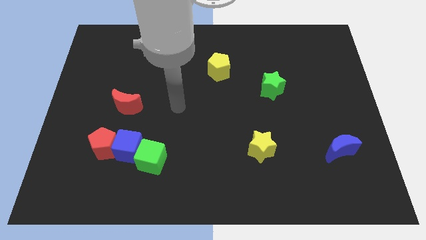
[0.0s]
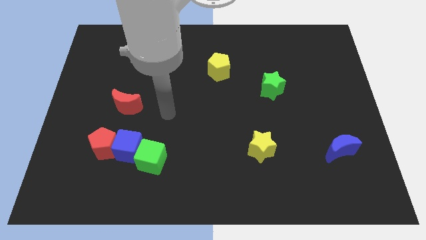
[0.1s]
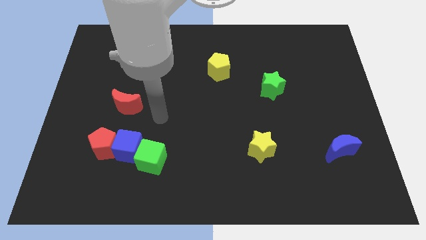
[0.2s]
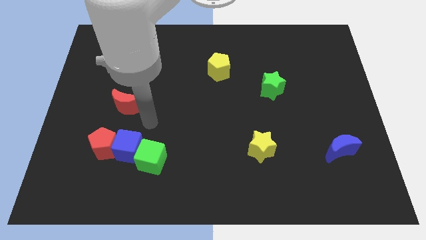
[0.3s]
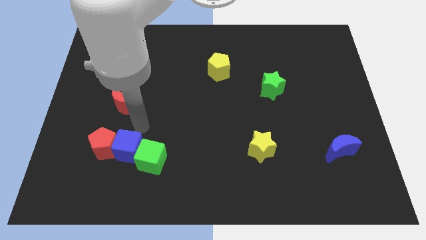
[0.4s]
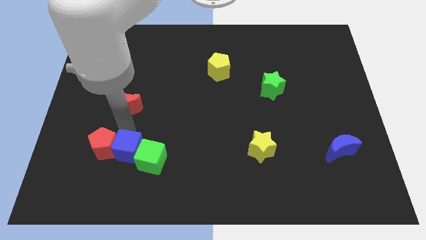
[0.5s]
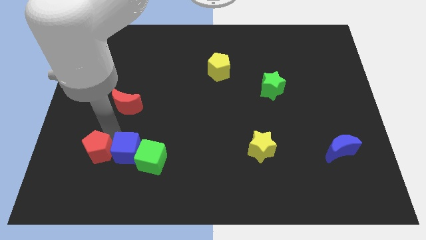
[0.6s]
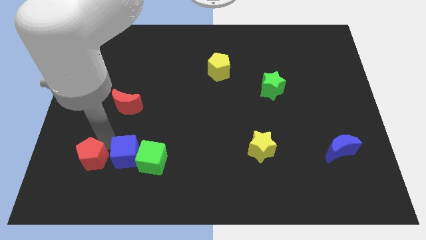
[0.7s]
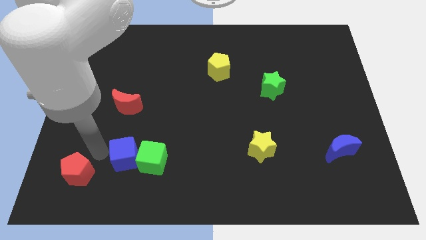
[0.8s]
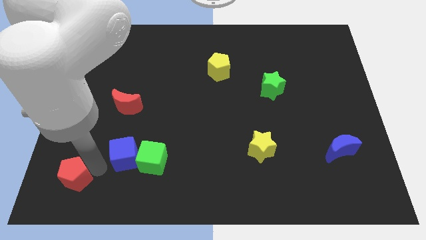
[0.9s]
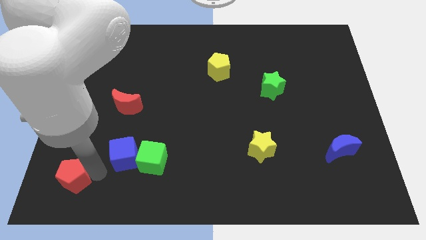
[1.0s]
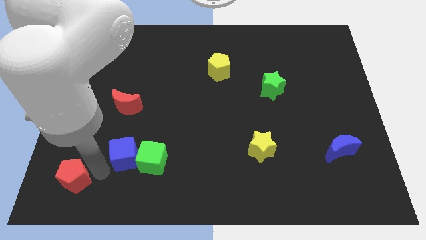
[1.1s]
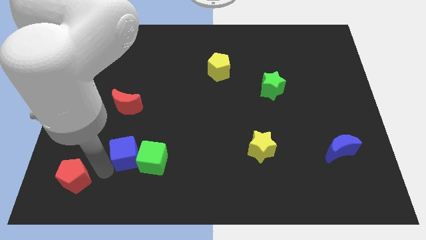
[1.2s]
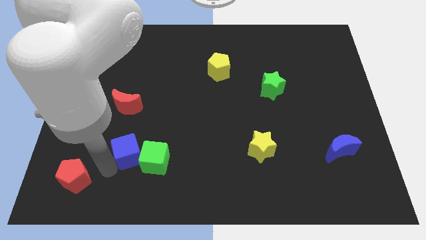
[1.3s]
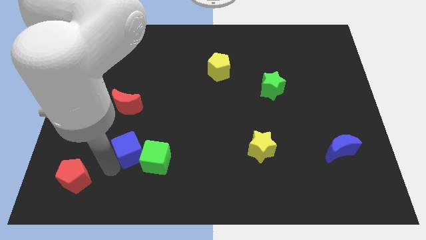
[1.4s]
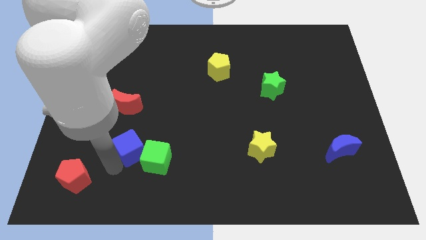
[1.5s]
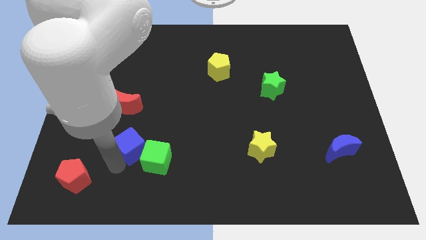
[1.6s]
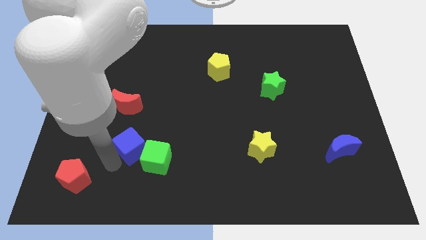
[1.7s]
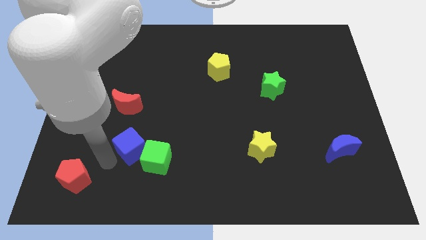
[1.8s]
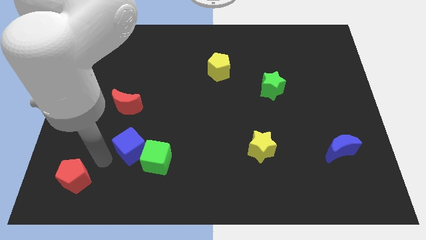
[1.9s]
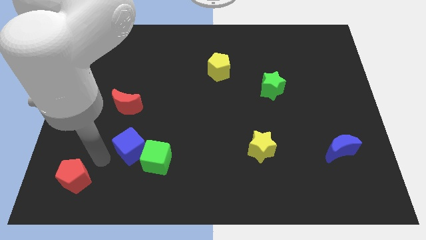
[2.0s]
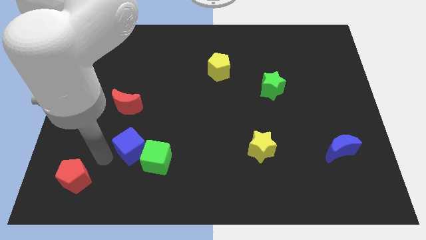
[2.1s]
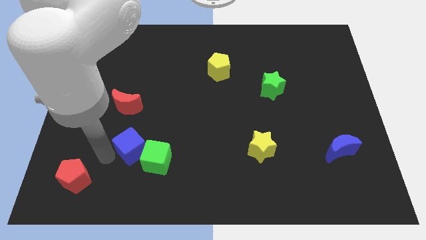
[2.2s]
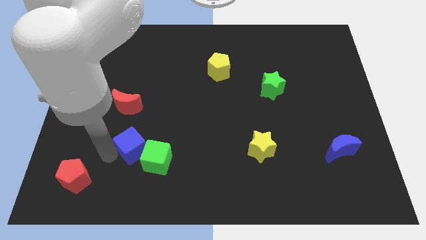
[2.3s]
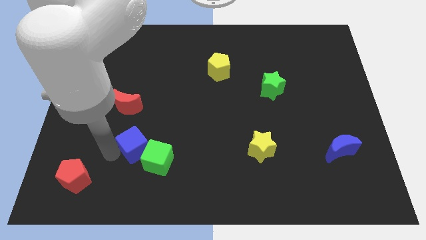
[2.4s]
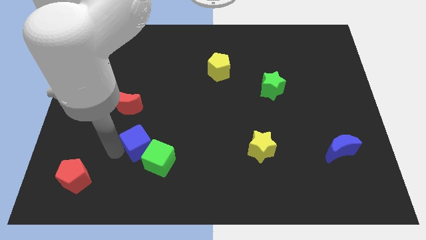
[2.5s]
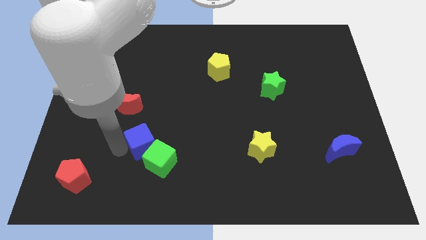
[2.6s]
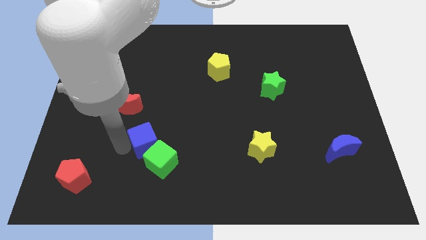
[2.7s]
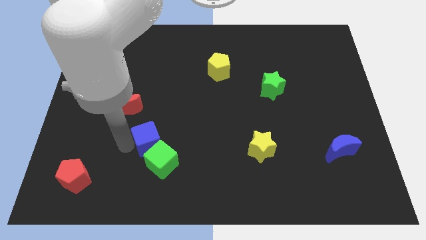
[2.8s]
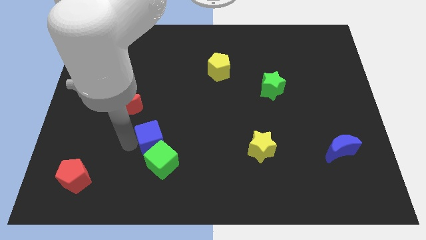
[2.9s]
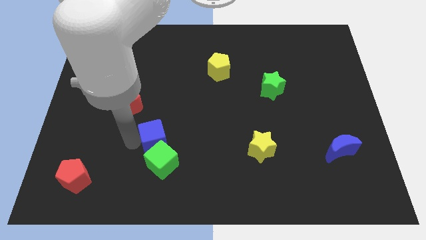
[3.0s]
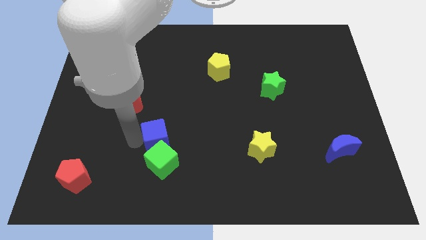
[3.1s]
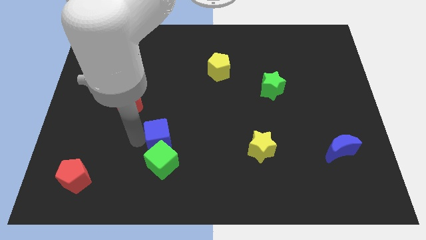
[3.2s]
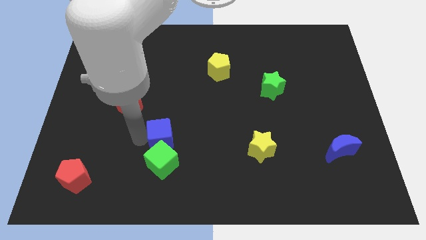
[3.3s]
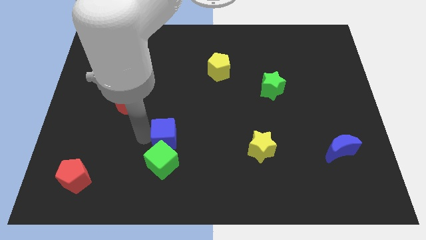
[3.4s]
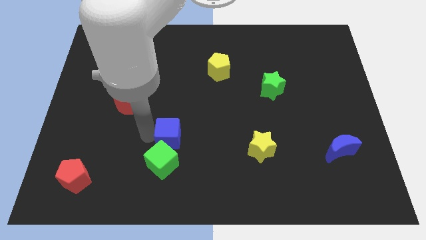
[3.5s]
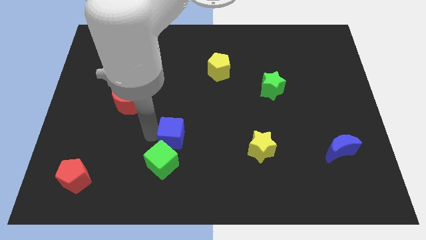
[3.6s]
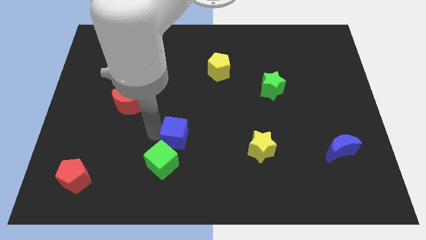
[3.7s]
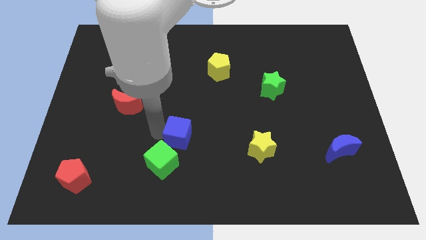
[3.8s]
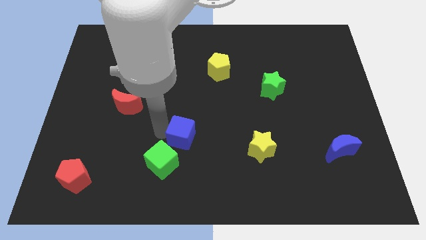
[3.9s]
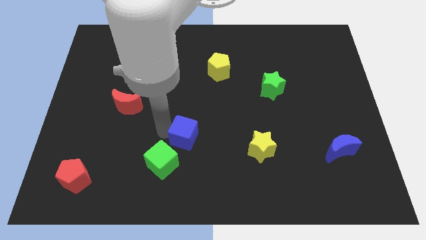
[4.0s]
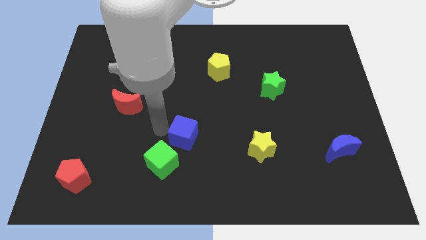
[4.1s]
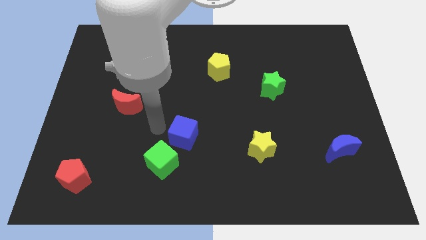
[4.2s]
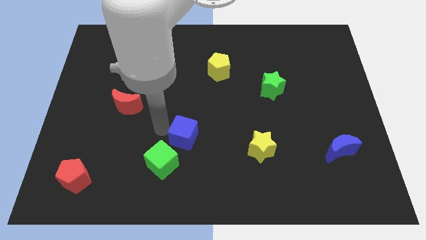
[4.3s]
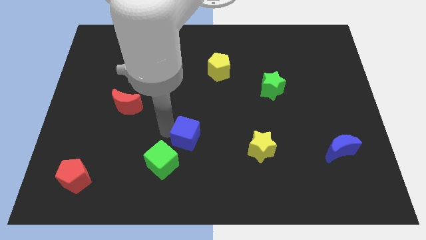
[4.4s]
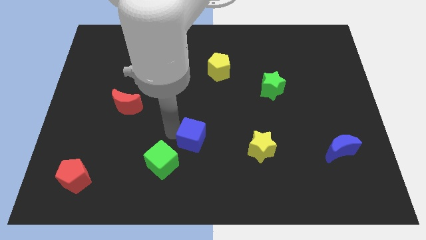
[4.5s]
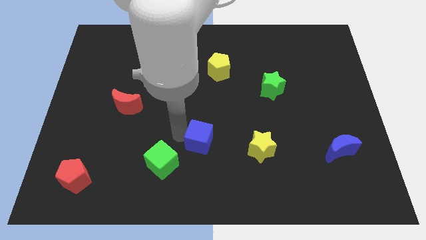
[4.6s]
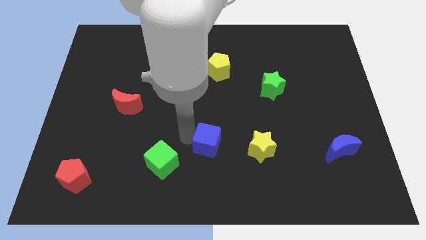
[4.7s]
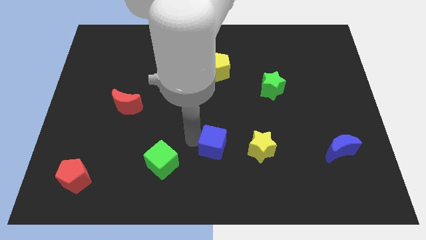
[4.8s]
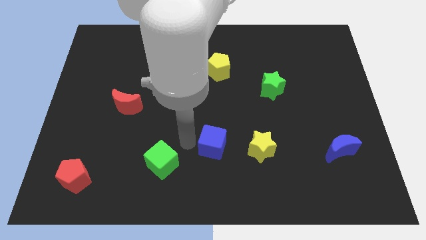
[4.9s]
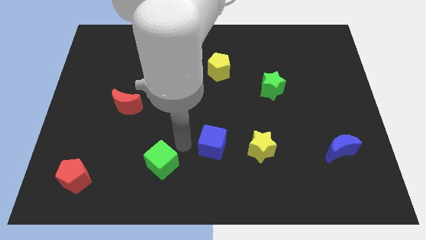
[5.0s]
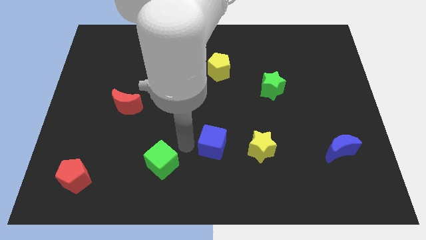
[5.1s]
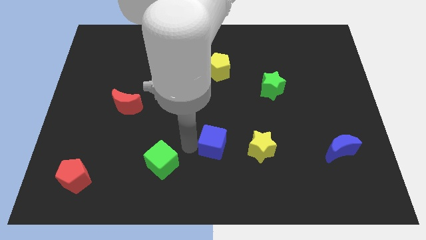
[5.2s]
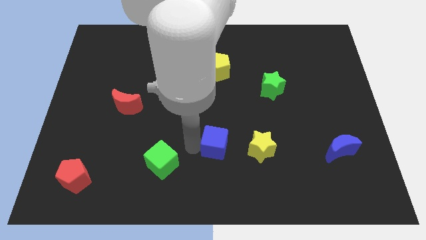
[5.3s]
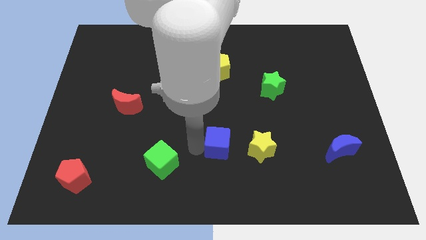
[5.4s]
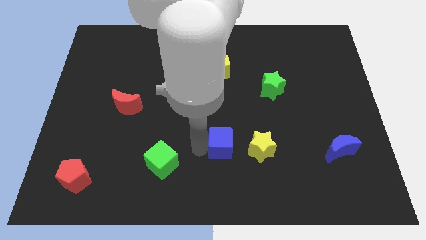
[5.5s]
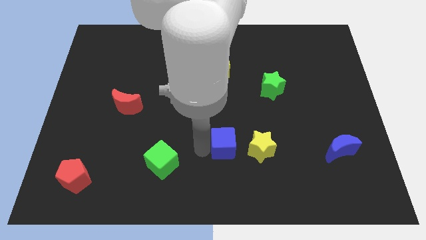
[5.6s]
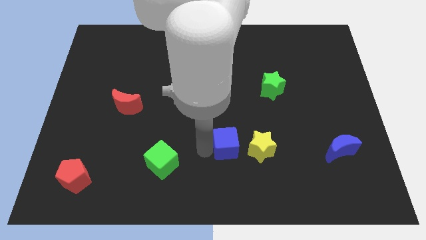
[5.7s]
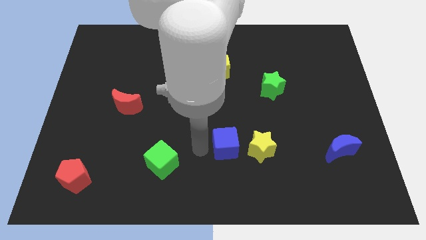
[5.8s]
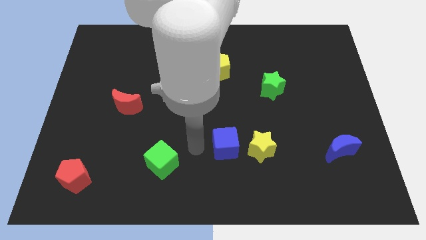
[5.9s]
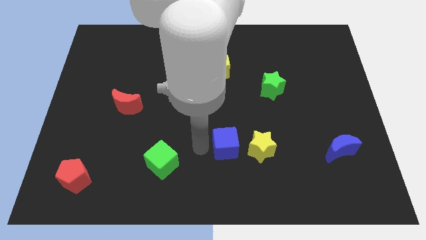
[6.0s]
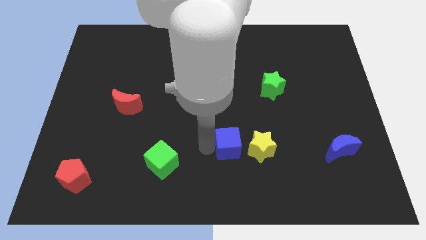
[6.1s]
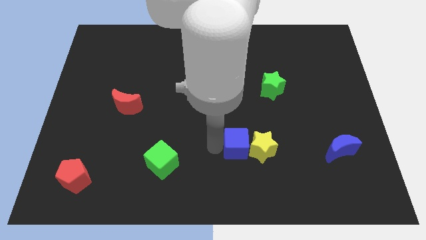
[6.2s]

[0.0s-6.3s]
slide the blue cube towards the yellow star
